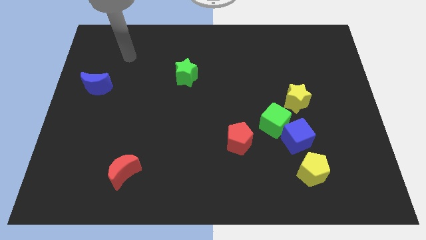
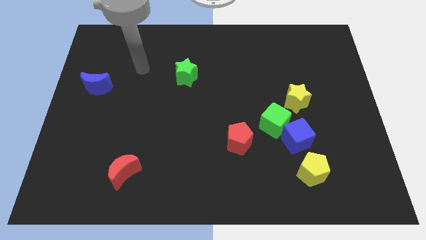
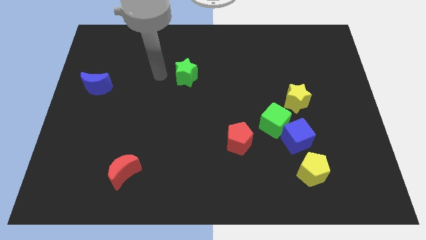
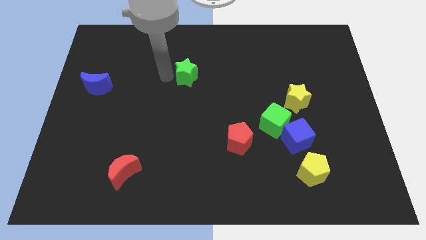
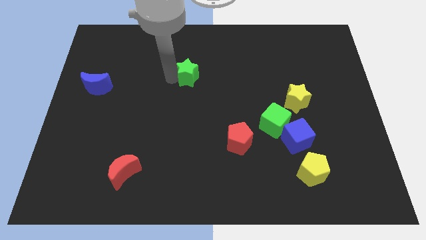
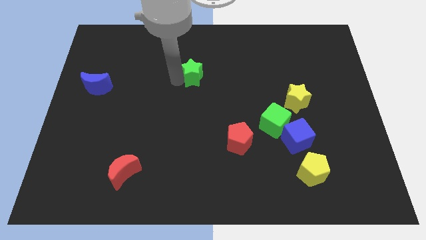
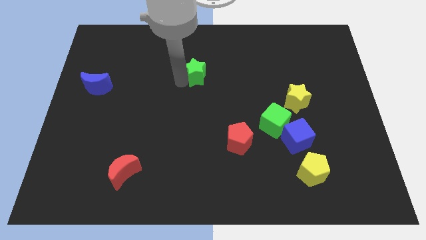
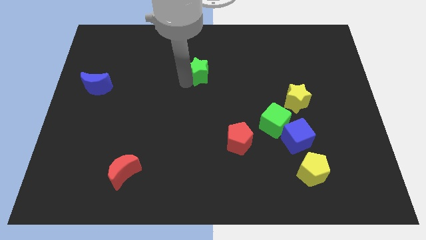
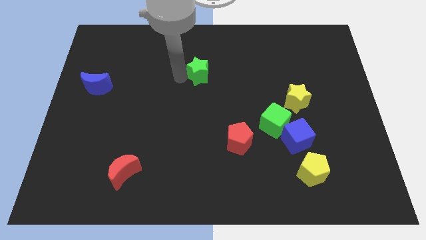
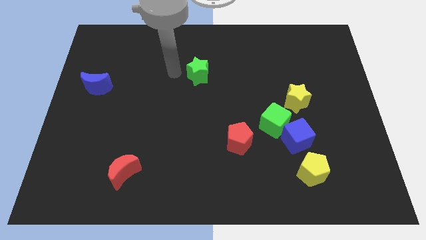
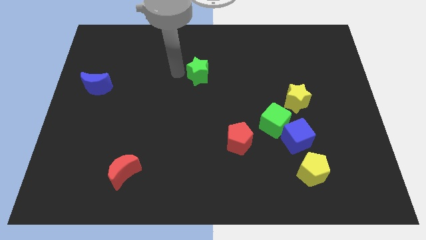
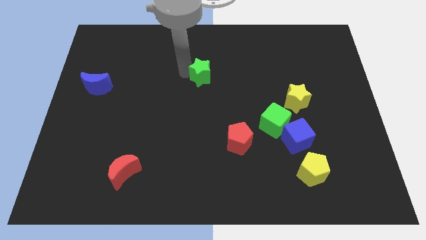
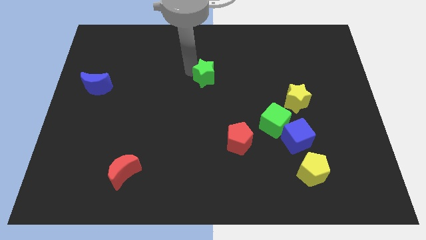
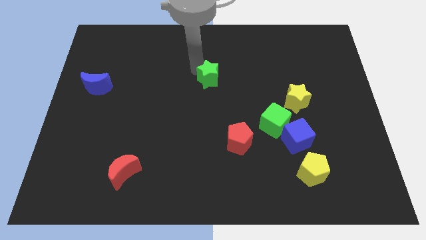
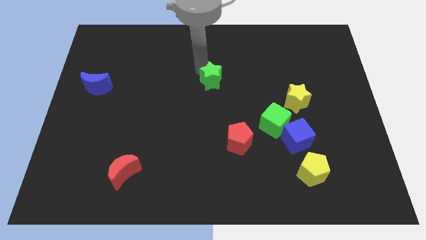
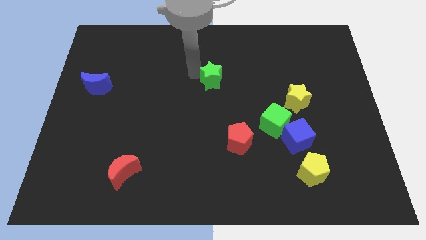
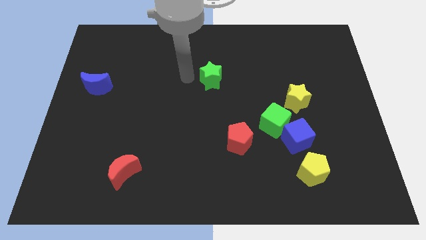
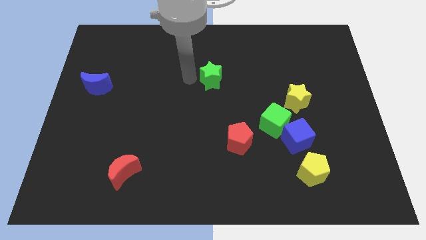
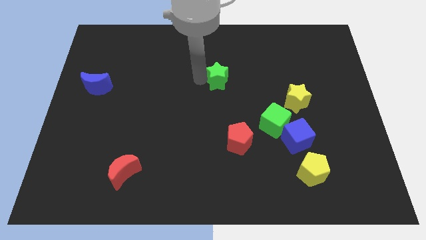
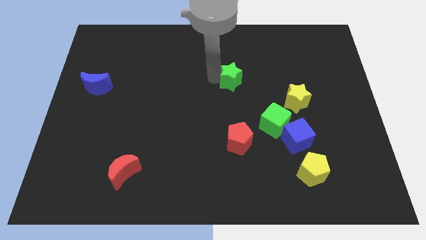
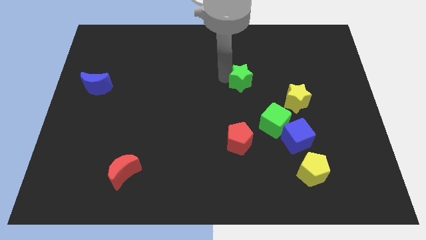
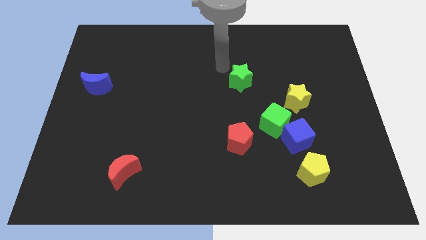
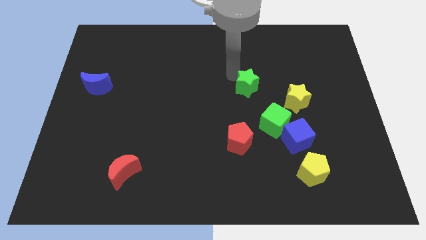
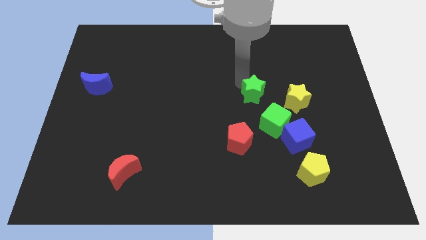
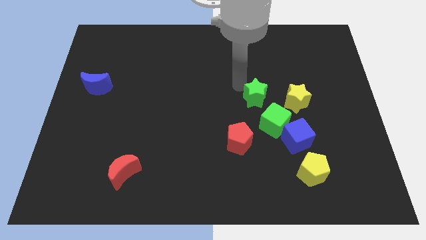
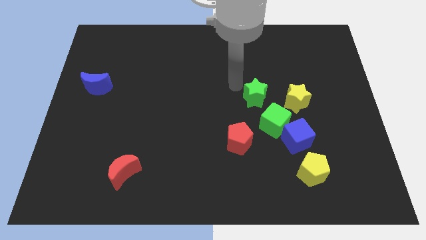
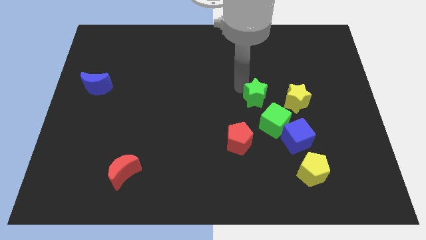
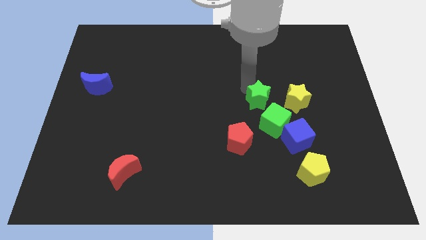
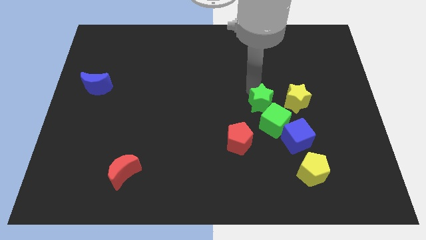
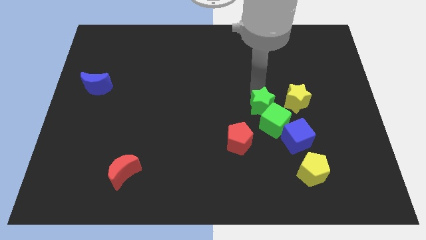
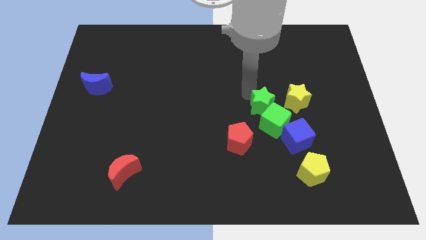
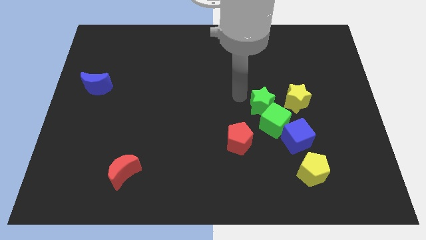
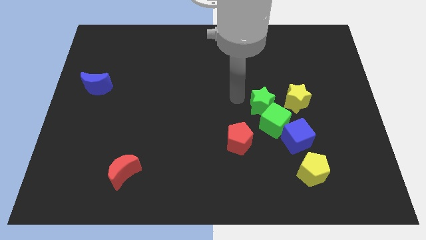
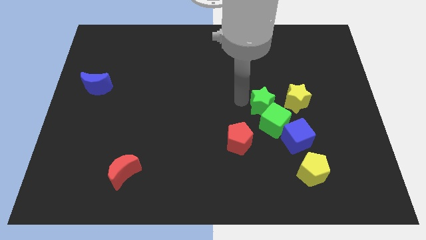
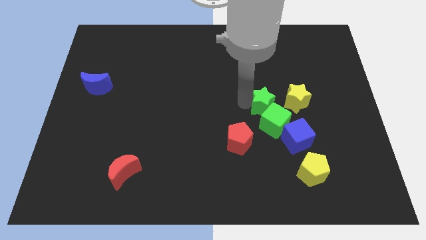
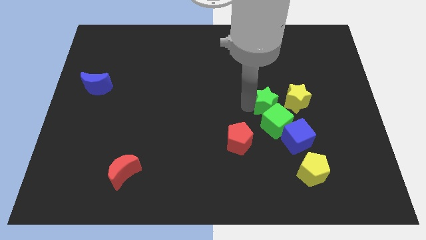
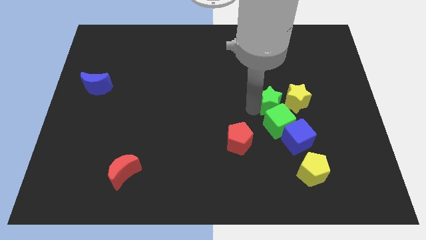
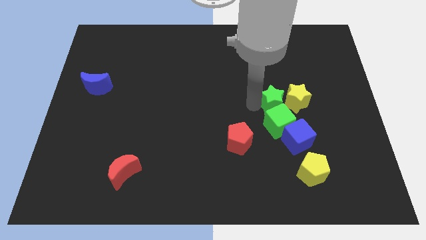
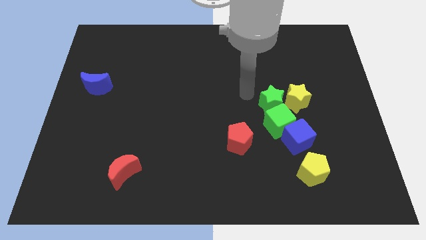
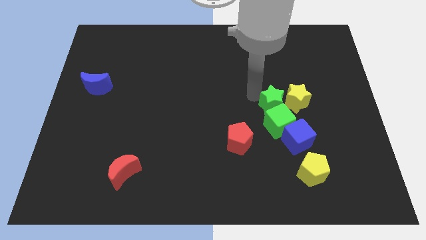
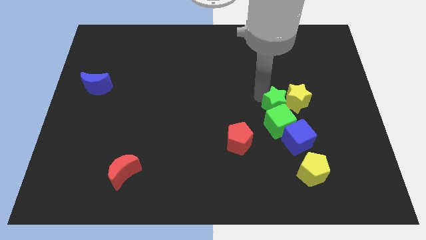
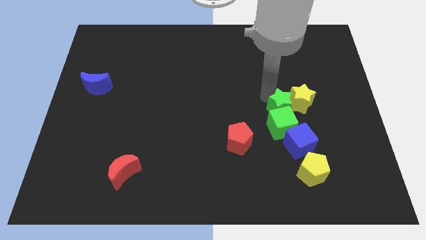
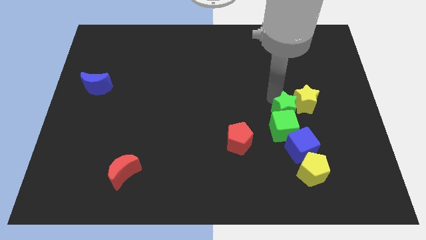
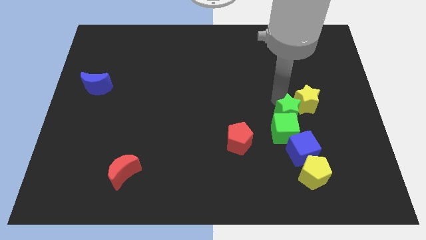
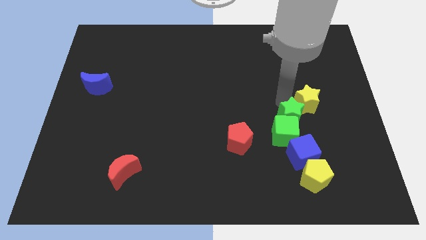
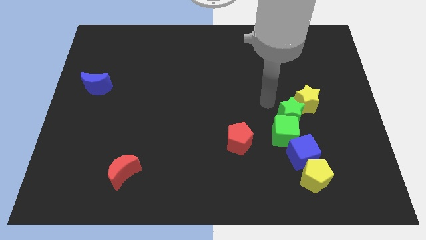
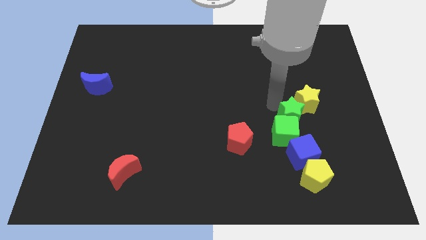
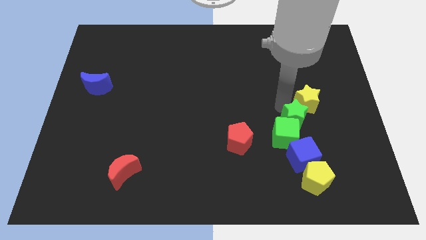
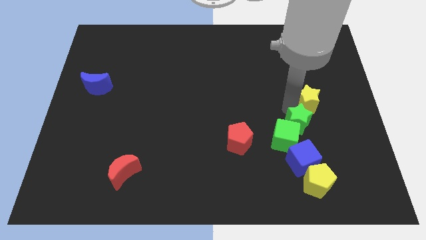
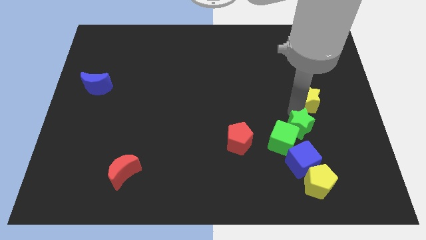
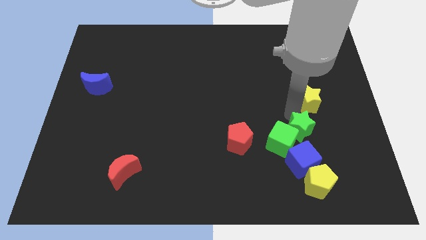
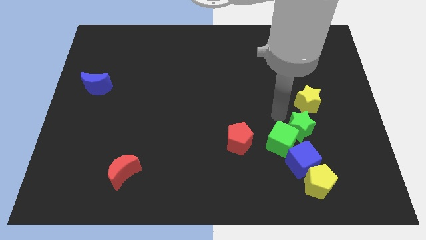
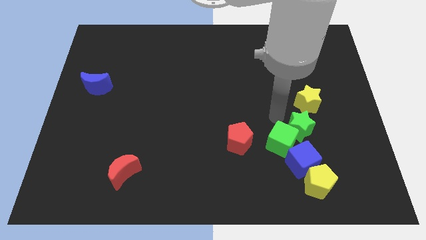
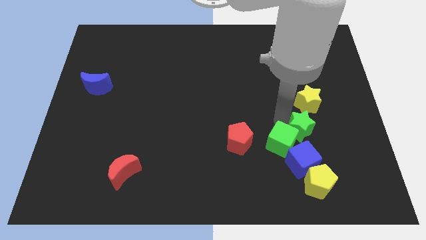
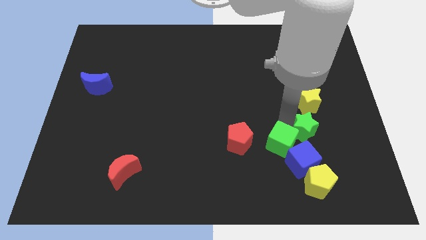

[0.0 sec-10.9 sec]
move the green star to the top right of the blue cube
